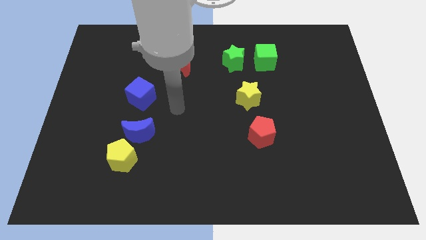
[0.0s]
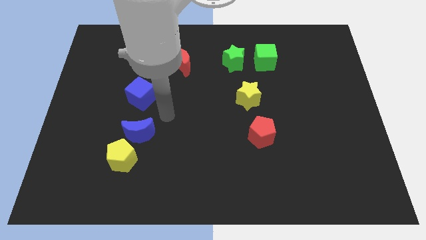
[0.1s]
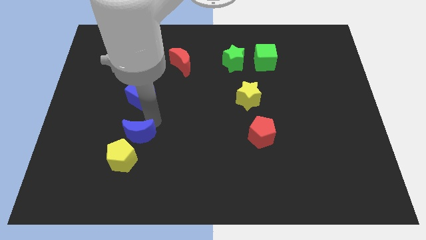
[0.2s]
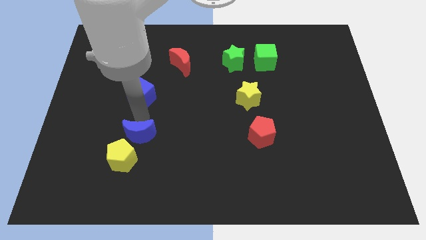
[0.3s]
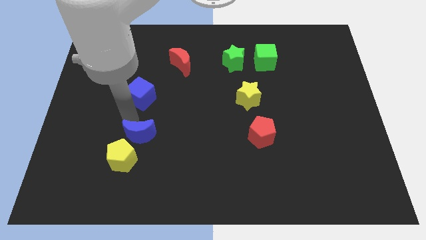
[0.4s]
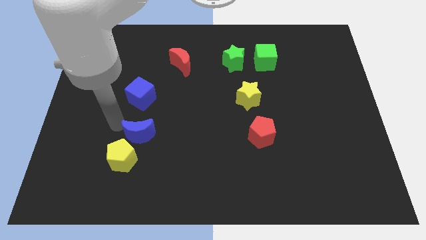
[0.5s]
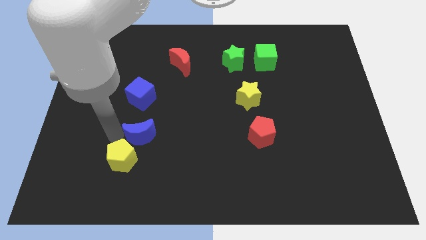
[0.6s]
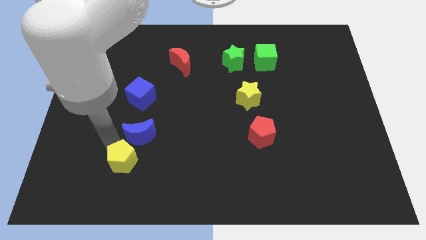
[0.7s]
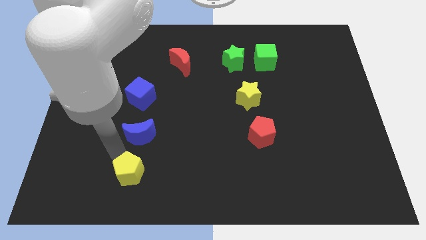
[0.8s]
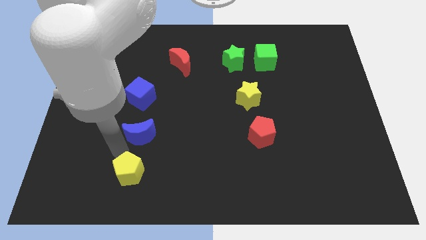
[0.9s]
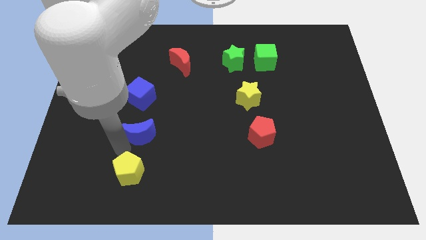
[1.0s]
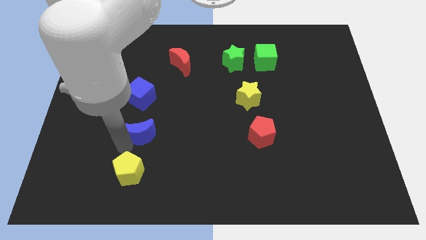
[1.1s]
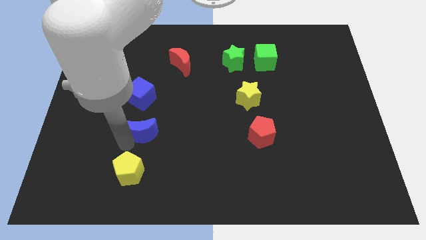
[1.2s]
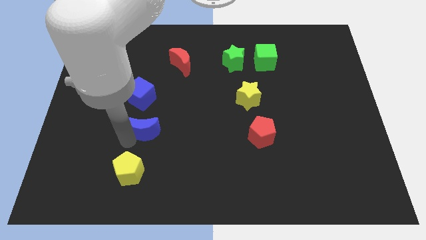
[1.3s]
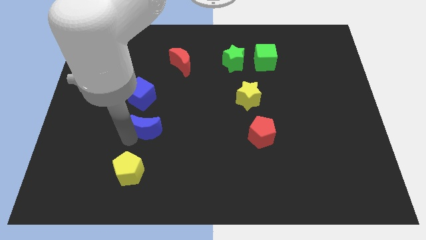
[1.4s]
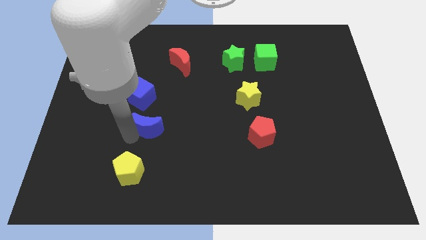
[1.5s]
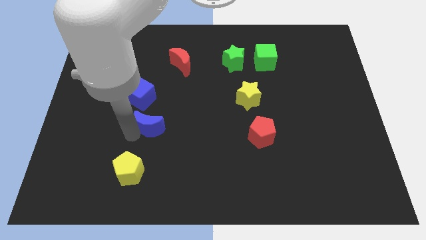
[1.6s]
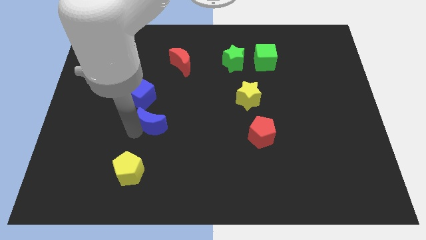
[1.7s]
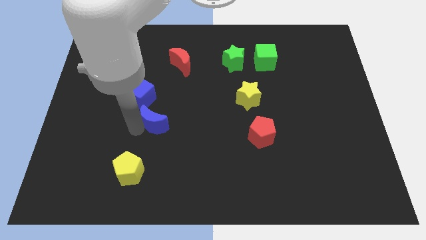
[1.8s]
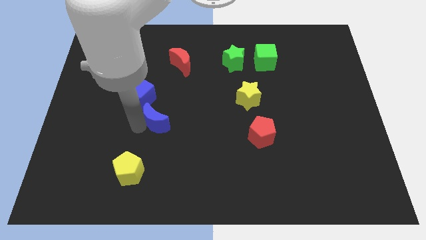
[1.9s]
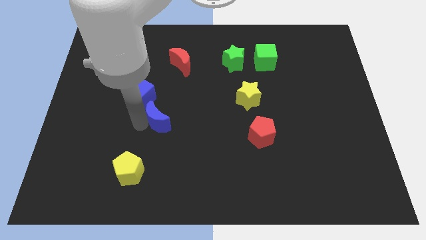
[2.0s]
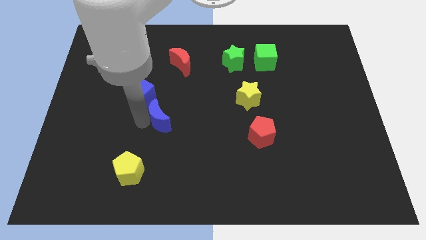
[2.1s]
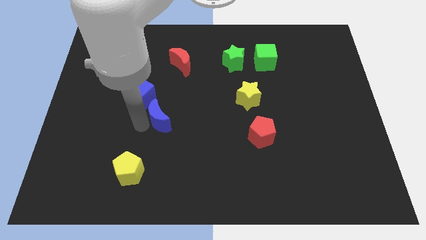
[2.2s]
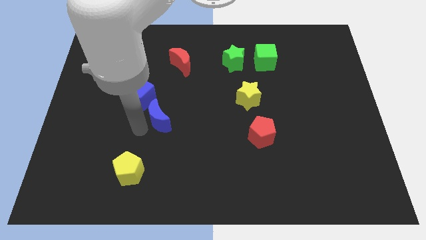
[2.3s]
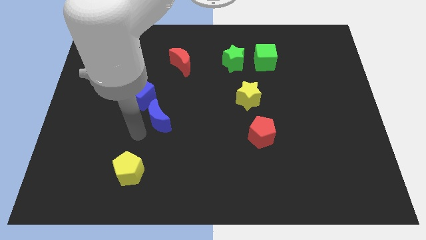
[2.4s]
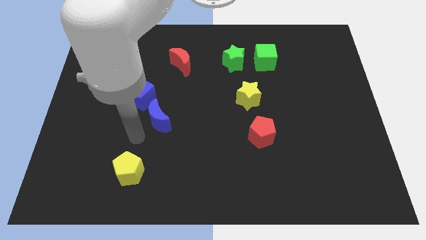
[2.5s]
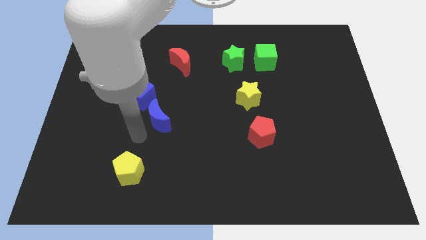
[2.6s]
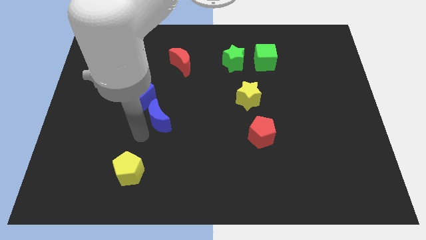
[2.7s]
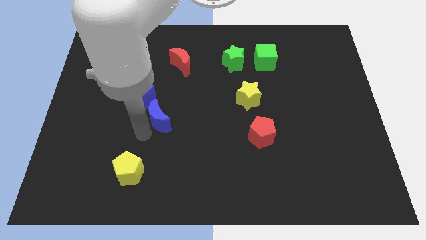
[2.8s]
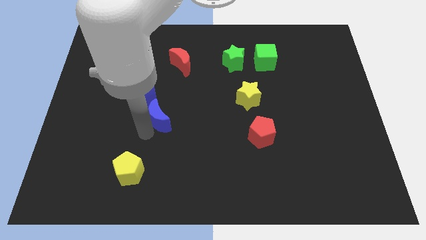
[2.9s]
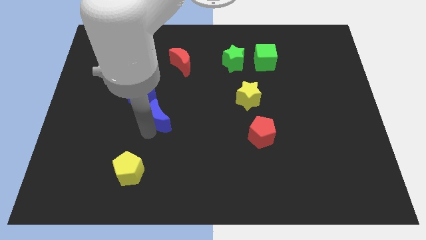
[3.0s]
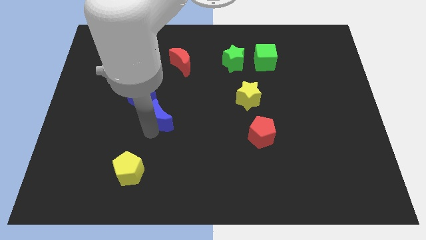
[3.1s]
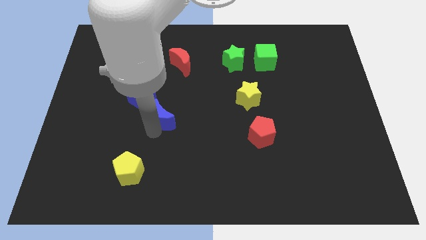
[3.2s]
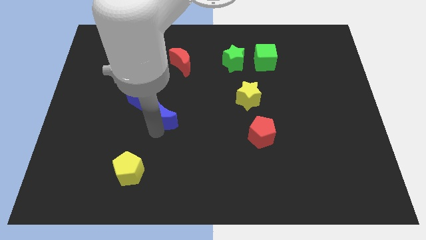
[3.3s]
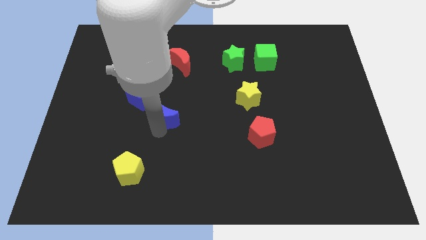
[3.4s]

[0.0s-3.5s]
slide the blue moon up and right diagonally somewhat

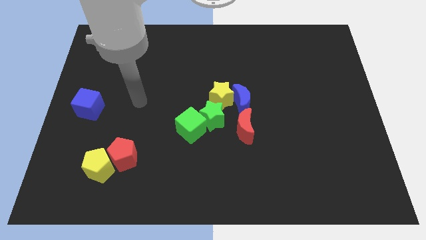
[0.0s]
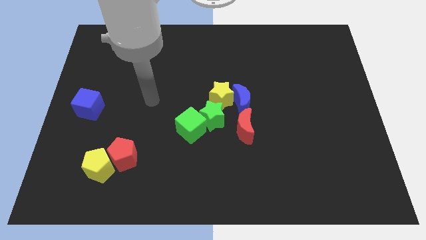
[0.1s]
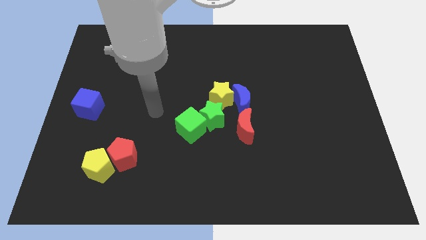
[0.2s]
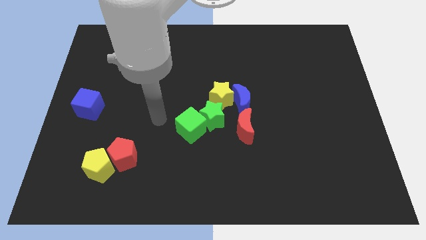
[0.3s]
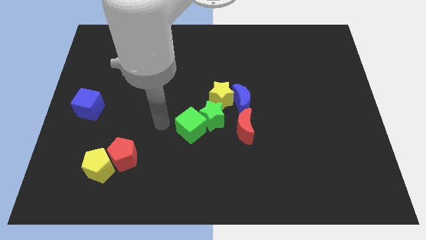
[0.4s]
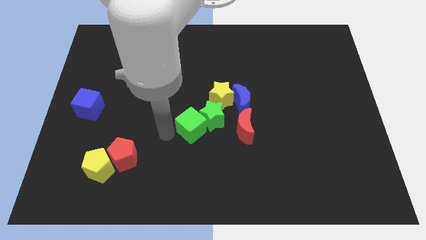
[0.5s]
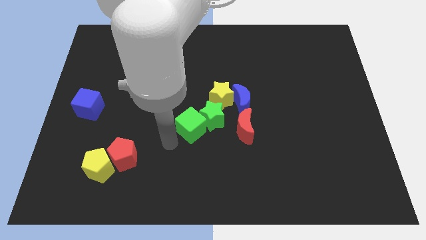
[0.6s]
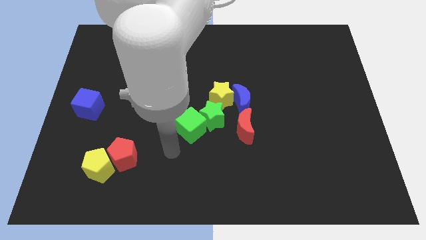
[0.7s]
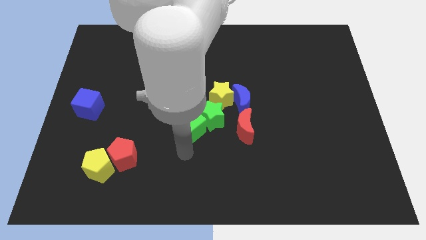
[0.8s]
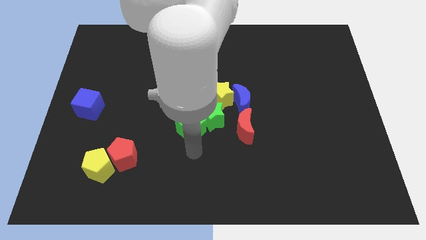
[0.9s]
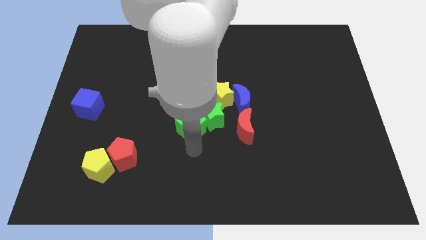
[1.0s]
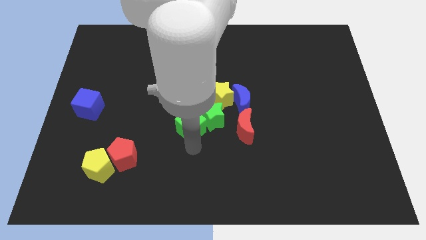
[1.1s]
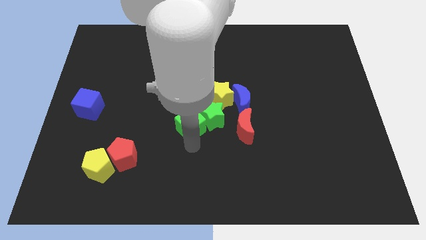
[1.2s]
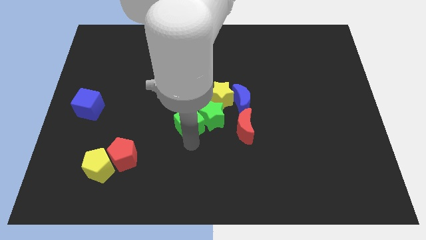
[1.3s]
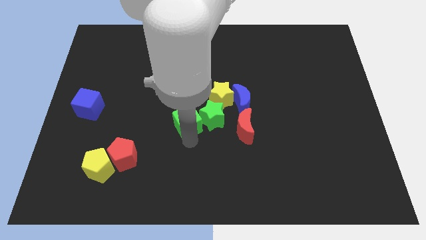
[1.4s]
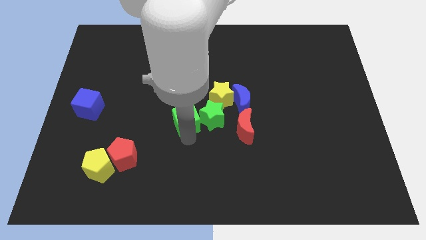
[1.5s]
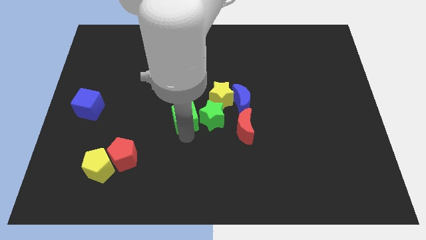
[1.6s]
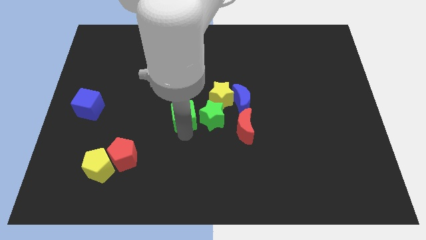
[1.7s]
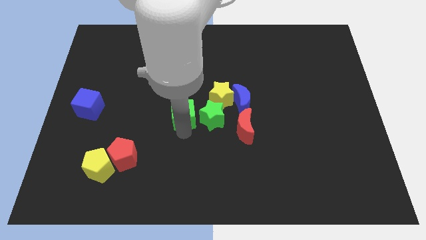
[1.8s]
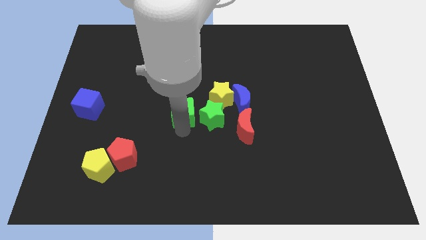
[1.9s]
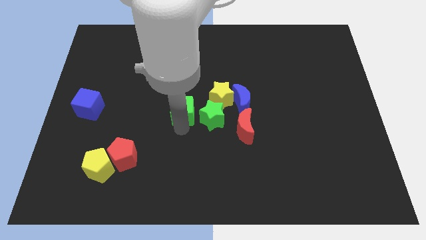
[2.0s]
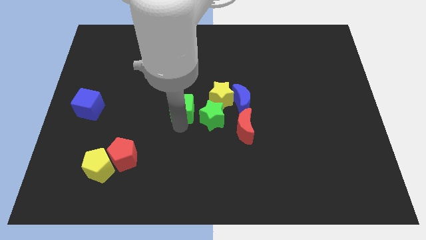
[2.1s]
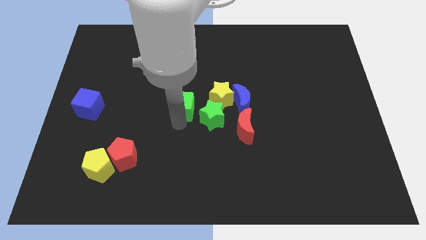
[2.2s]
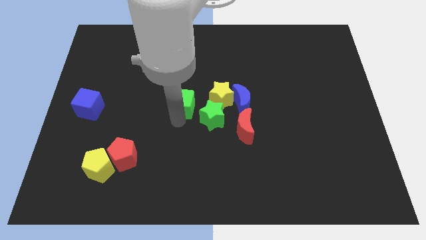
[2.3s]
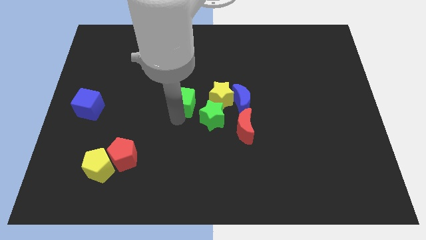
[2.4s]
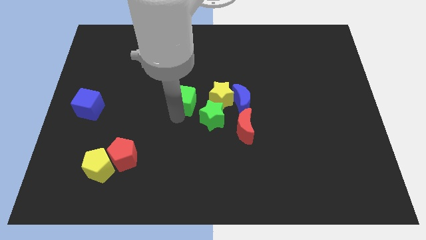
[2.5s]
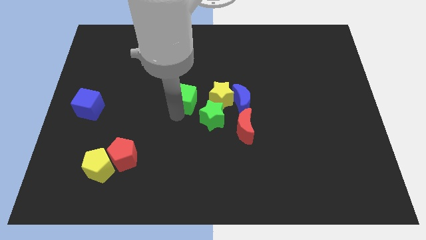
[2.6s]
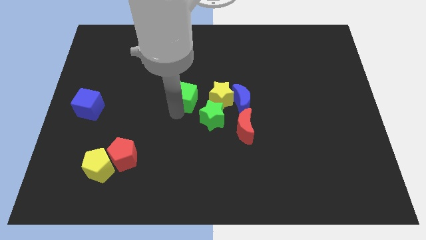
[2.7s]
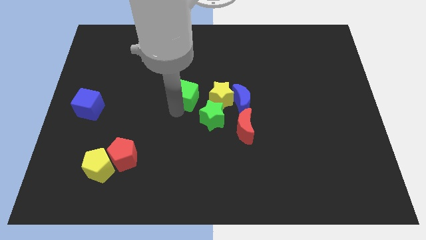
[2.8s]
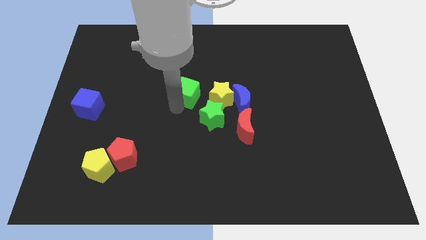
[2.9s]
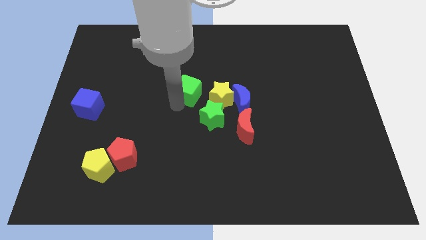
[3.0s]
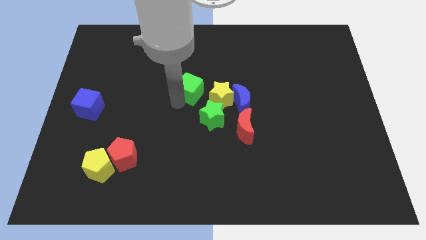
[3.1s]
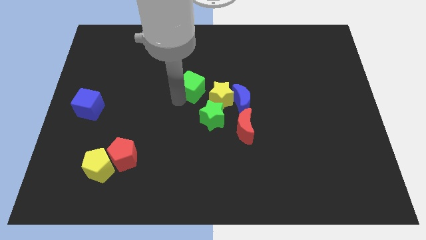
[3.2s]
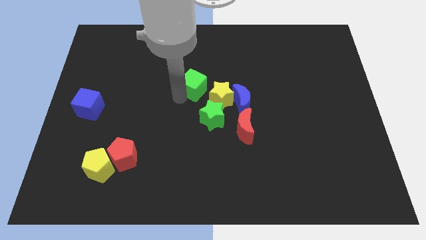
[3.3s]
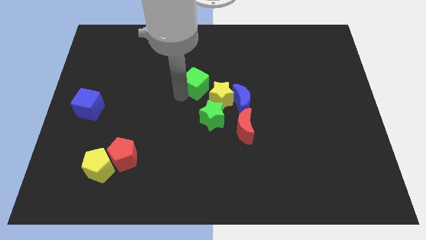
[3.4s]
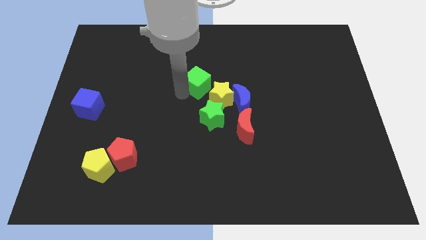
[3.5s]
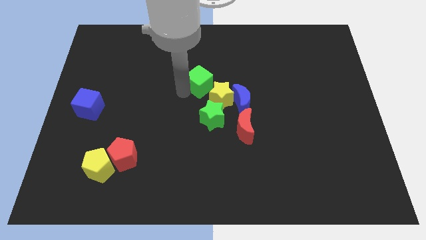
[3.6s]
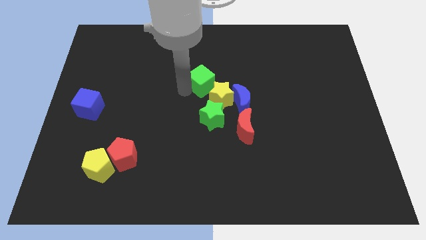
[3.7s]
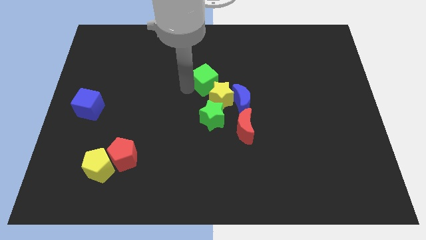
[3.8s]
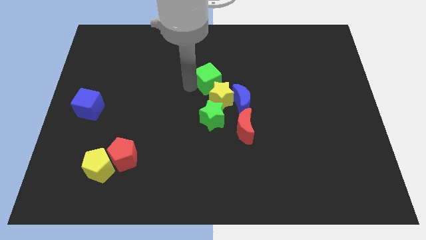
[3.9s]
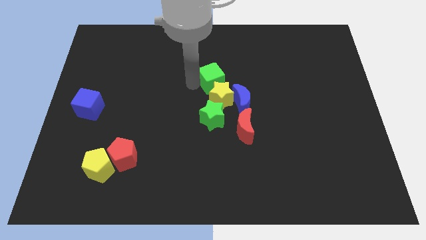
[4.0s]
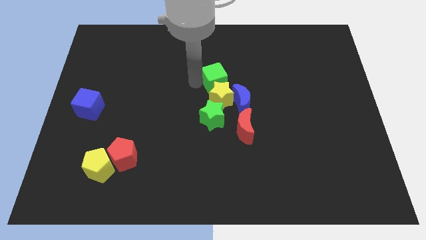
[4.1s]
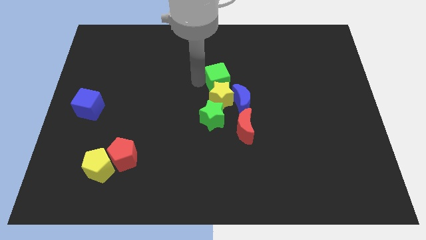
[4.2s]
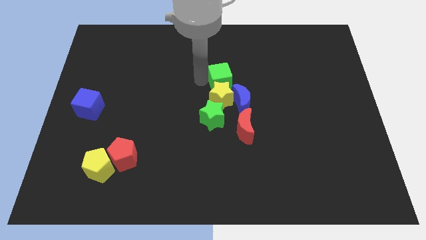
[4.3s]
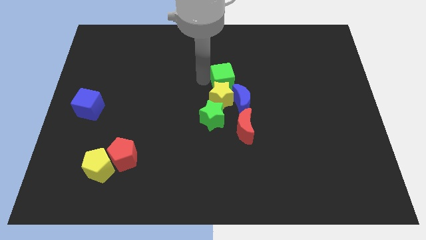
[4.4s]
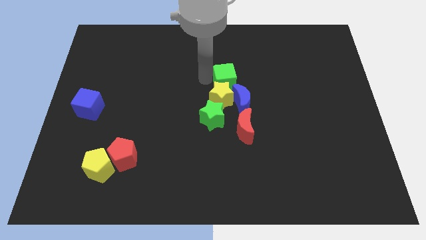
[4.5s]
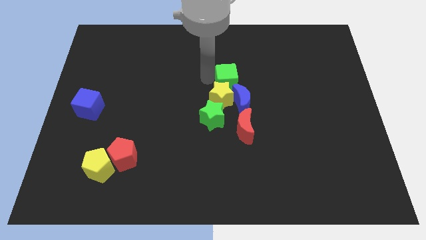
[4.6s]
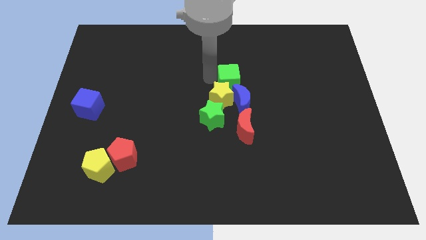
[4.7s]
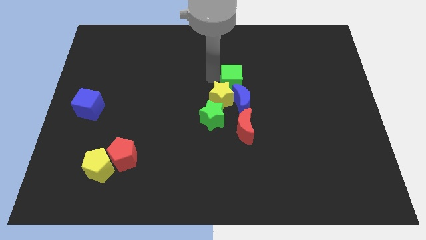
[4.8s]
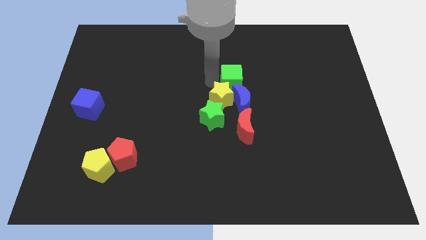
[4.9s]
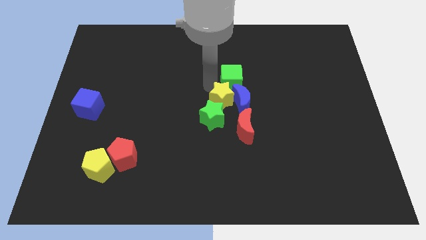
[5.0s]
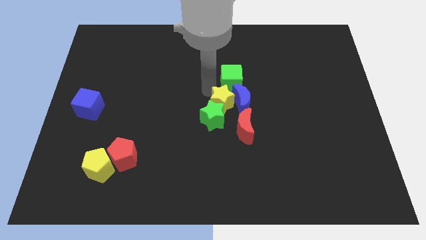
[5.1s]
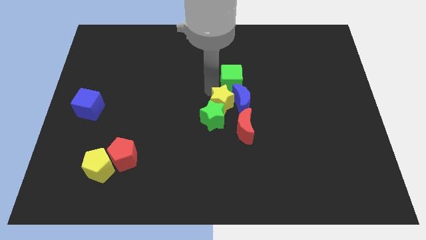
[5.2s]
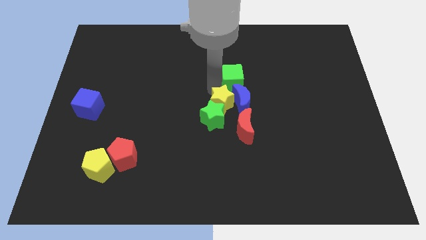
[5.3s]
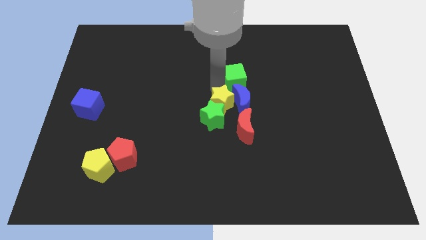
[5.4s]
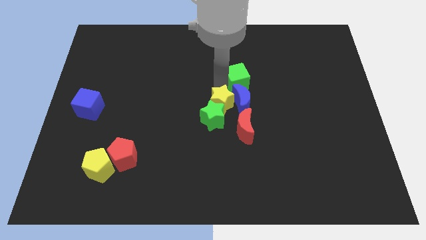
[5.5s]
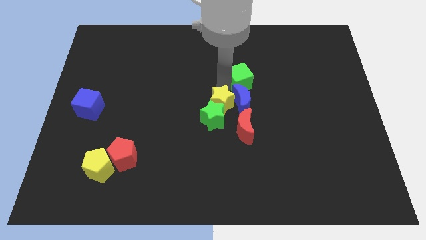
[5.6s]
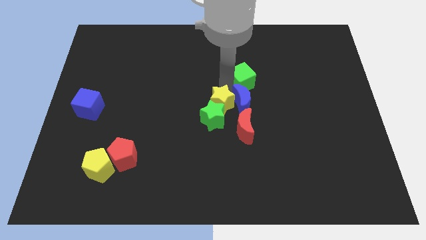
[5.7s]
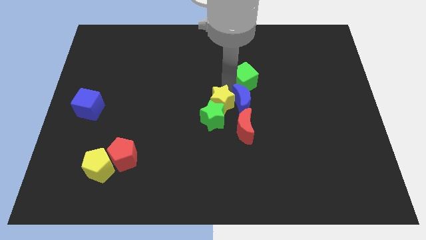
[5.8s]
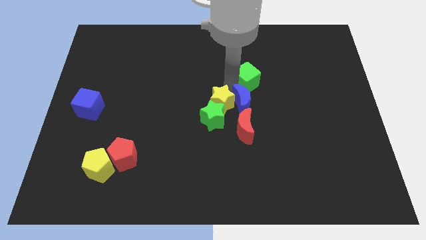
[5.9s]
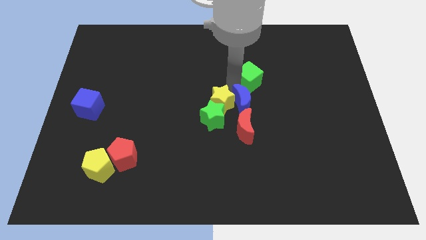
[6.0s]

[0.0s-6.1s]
push the green cube up and then to the right
